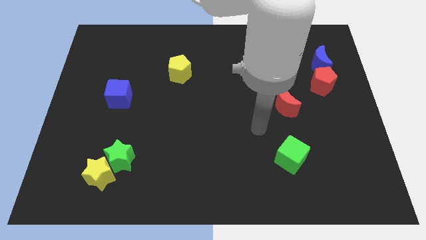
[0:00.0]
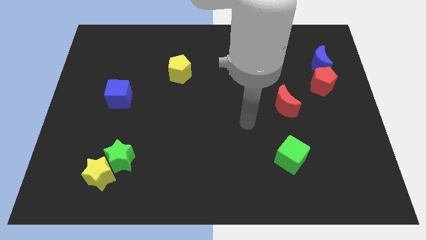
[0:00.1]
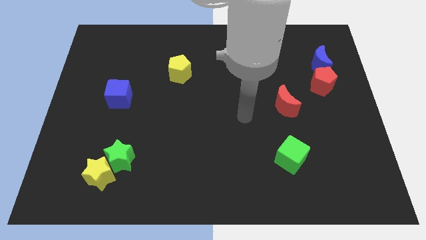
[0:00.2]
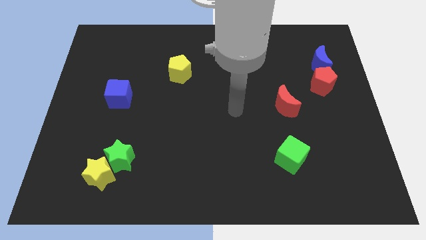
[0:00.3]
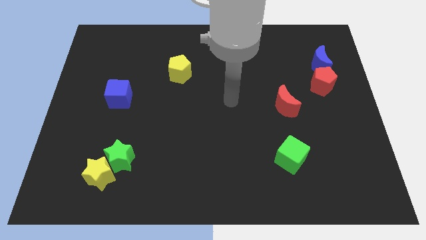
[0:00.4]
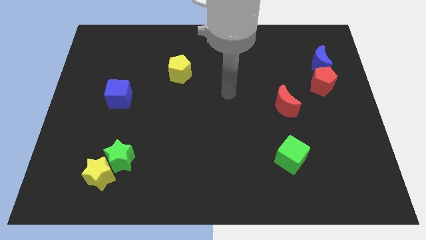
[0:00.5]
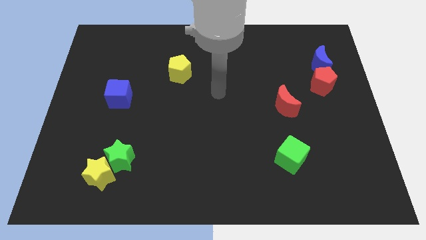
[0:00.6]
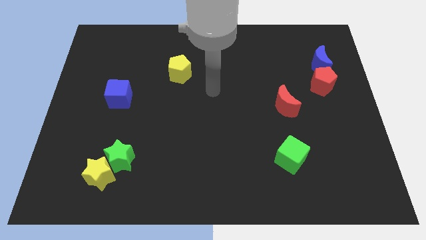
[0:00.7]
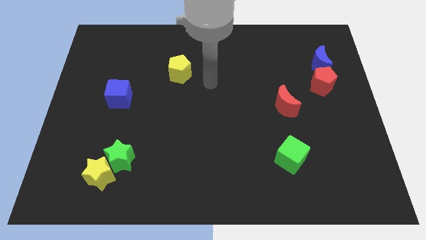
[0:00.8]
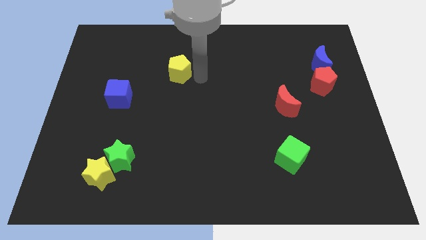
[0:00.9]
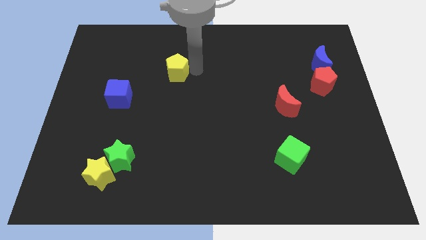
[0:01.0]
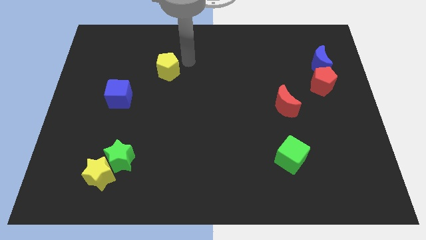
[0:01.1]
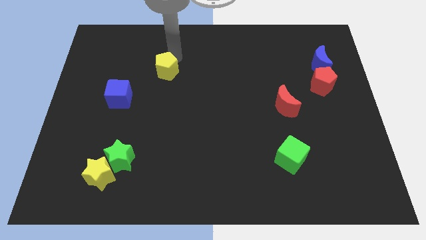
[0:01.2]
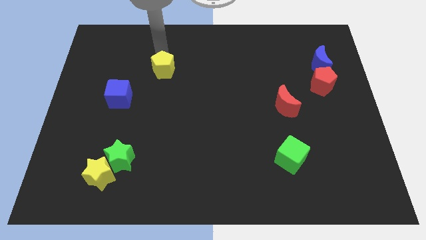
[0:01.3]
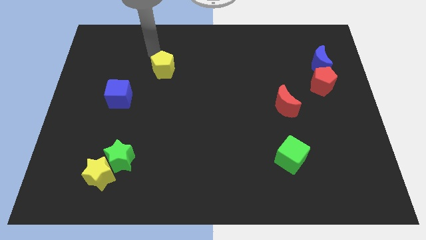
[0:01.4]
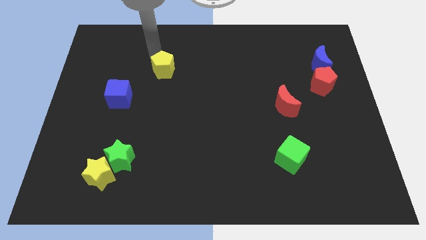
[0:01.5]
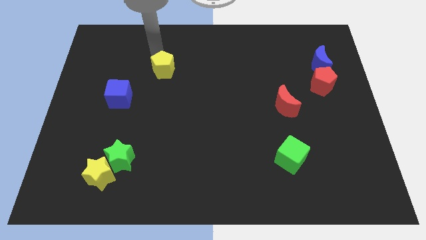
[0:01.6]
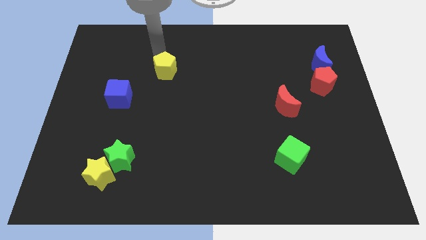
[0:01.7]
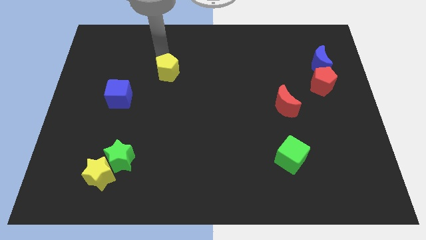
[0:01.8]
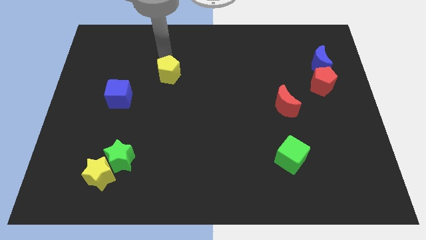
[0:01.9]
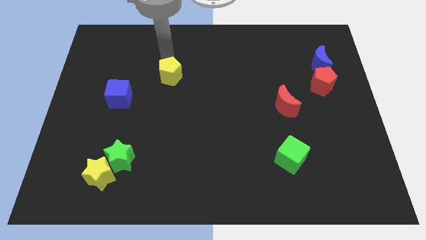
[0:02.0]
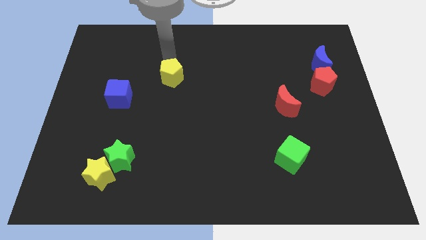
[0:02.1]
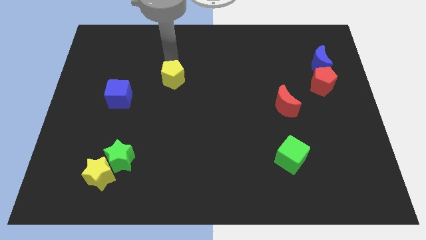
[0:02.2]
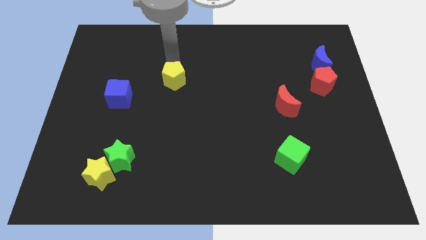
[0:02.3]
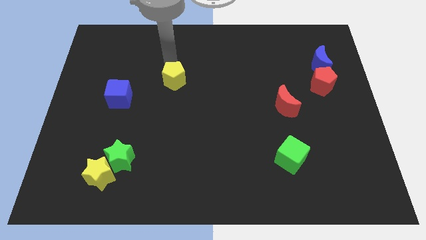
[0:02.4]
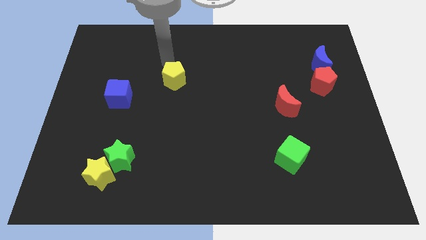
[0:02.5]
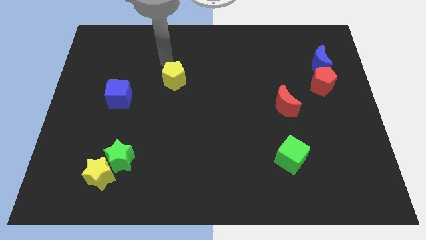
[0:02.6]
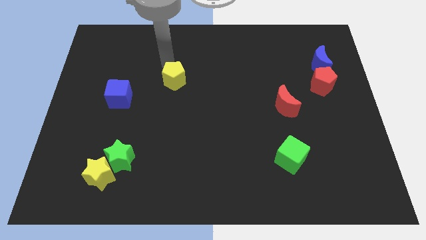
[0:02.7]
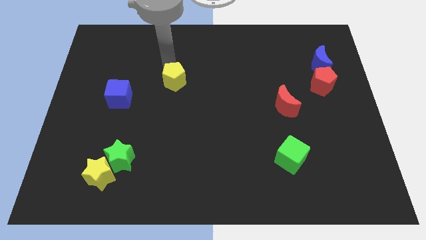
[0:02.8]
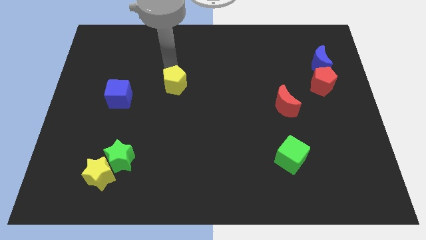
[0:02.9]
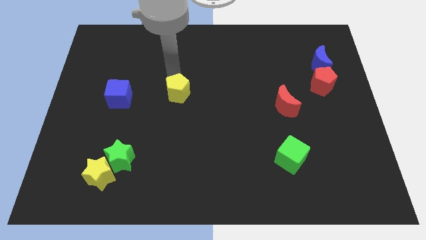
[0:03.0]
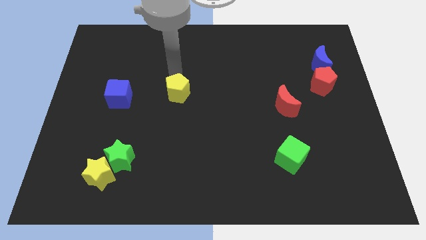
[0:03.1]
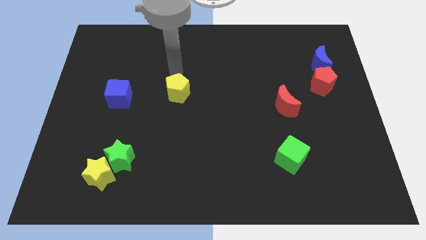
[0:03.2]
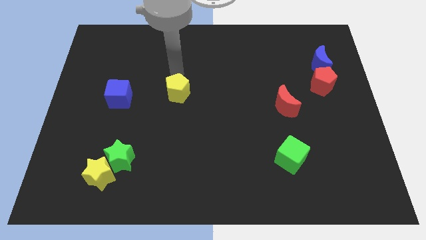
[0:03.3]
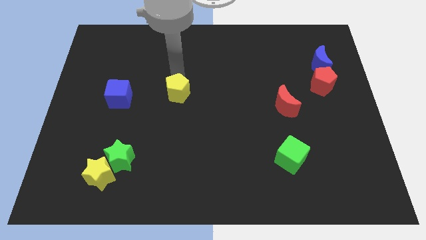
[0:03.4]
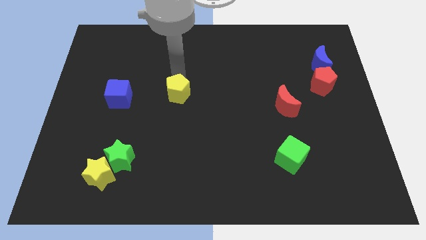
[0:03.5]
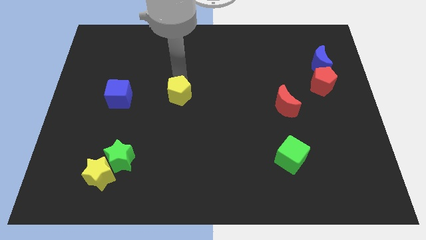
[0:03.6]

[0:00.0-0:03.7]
push the yellow pentagon downwards a little bit

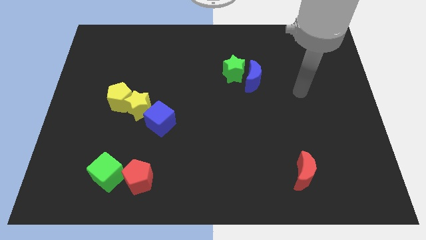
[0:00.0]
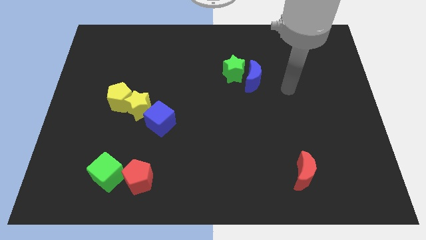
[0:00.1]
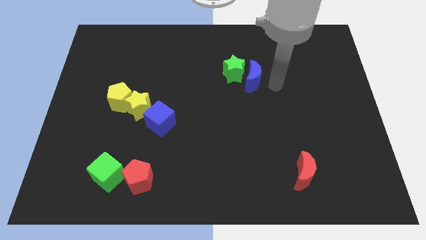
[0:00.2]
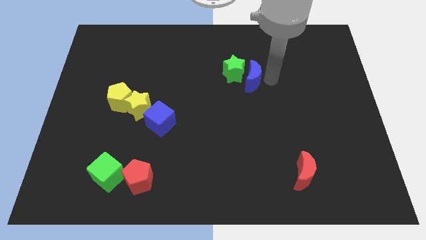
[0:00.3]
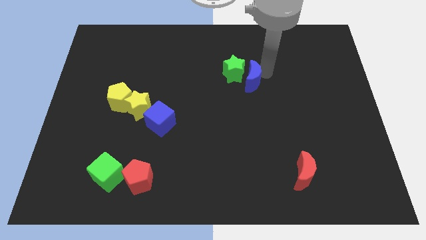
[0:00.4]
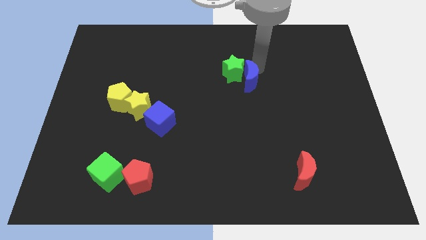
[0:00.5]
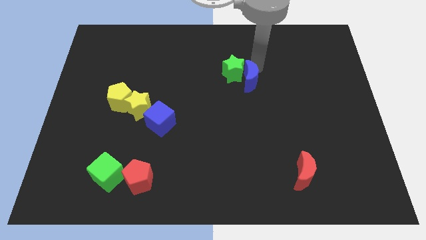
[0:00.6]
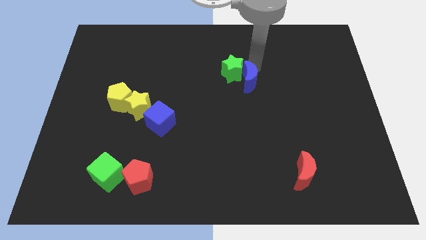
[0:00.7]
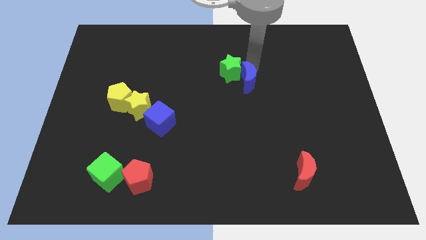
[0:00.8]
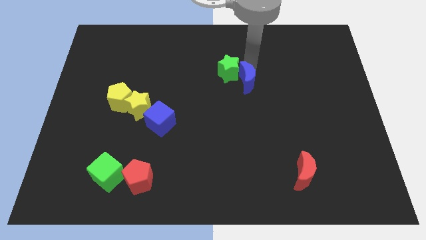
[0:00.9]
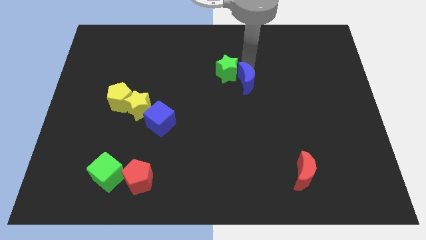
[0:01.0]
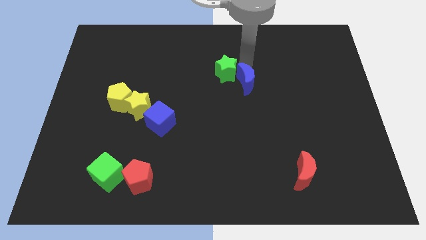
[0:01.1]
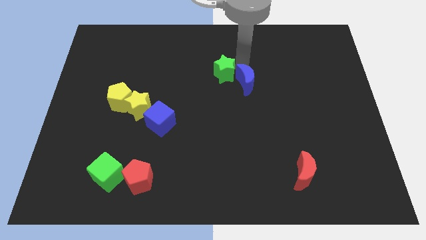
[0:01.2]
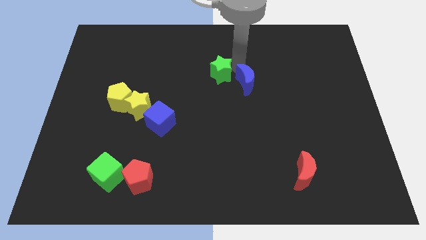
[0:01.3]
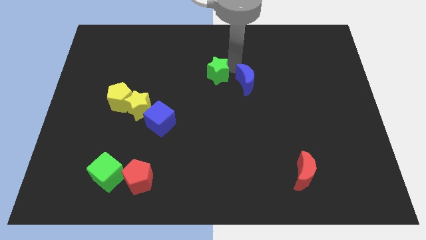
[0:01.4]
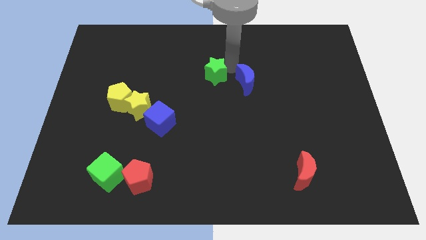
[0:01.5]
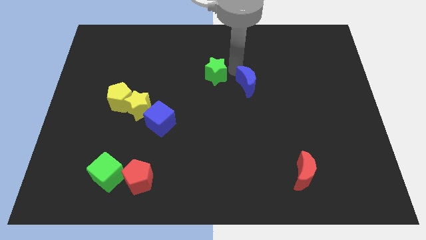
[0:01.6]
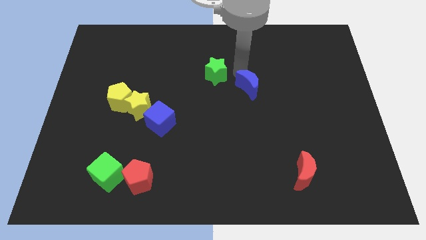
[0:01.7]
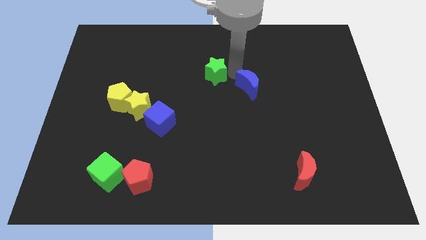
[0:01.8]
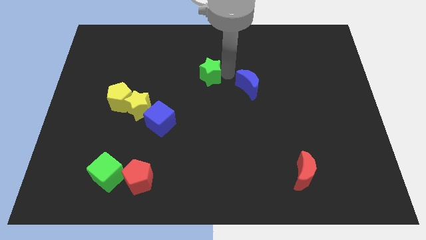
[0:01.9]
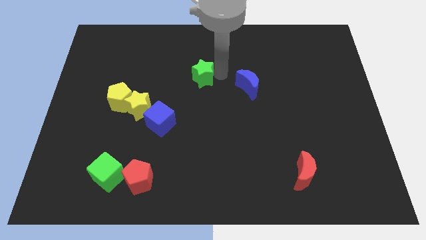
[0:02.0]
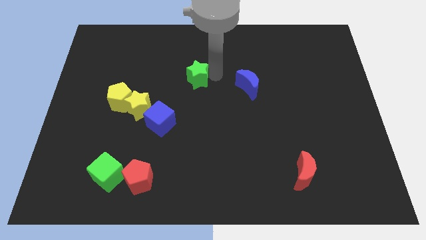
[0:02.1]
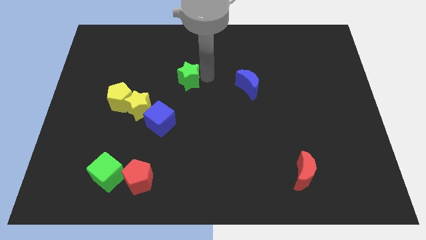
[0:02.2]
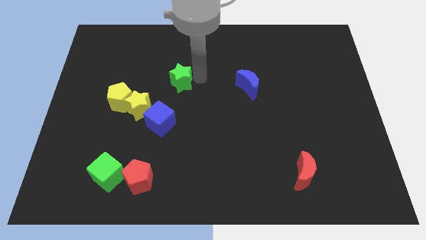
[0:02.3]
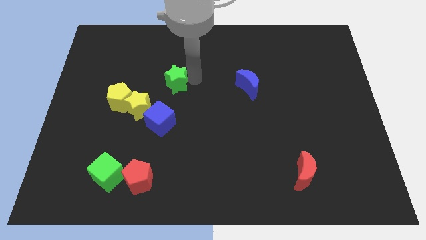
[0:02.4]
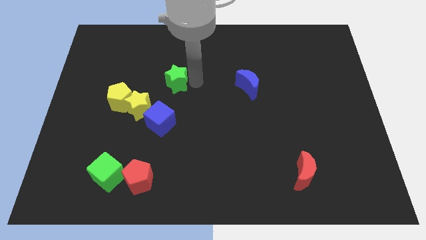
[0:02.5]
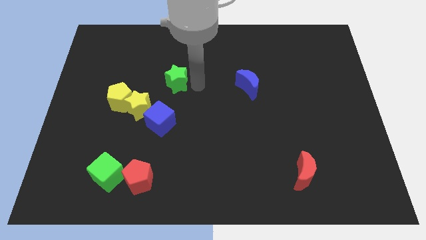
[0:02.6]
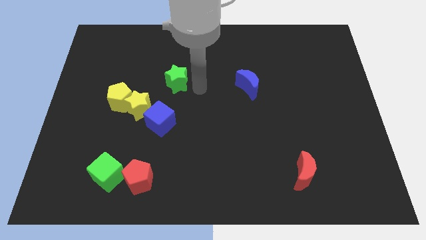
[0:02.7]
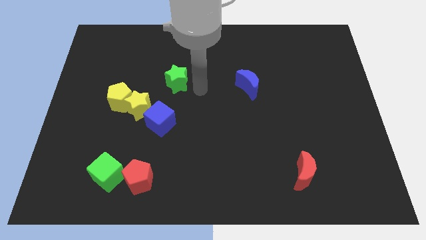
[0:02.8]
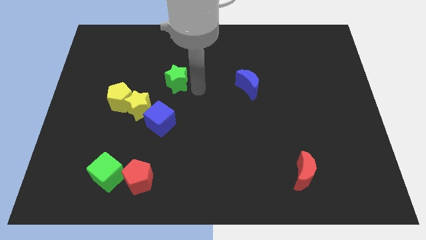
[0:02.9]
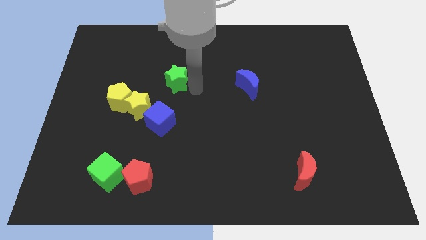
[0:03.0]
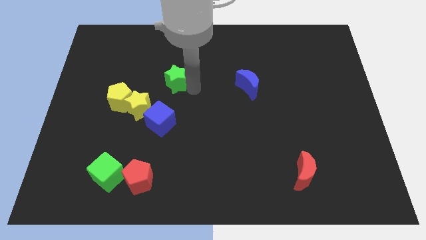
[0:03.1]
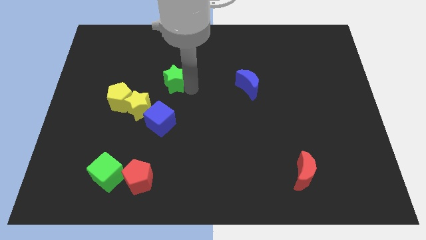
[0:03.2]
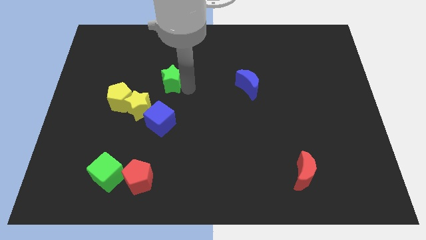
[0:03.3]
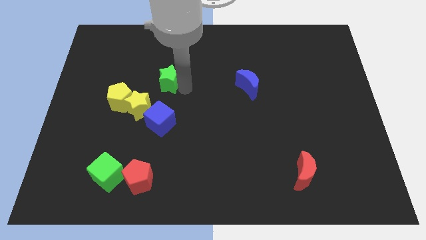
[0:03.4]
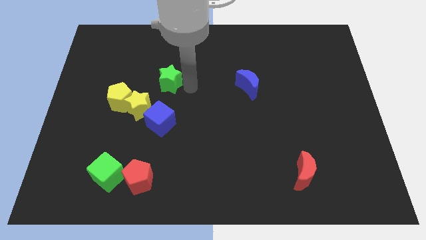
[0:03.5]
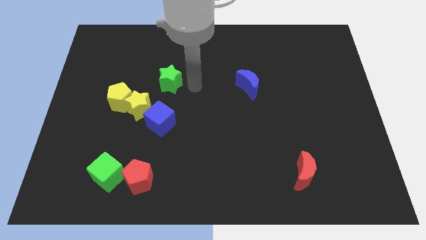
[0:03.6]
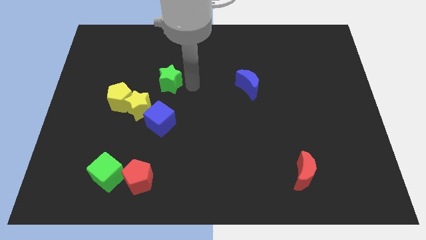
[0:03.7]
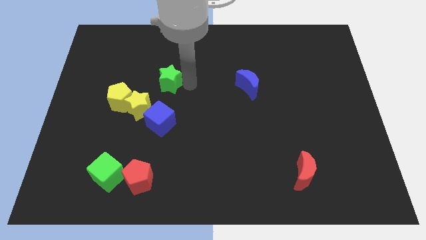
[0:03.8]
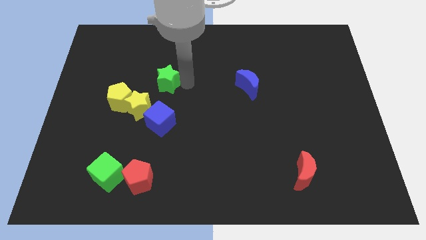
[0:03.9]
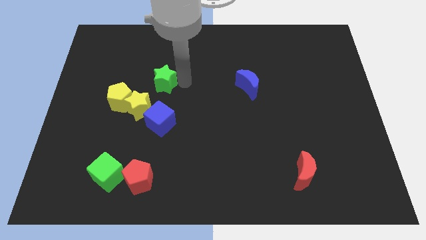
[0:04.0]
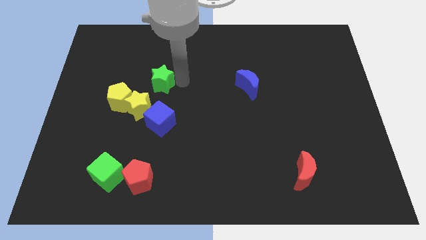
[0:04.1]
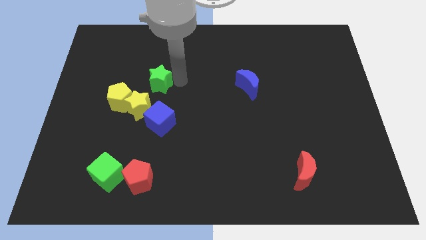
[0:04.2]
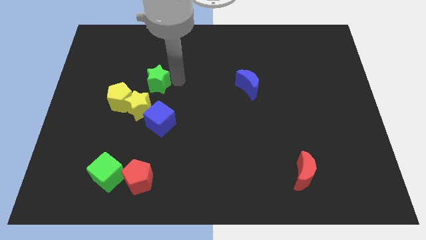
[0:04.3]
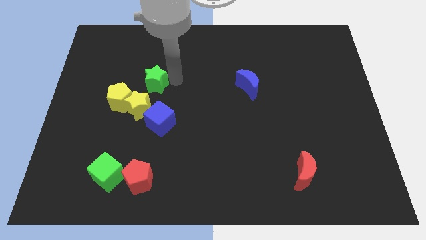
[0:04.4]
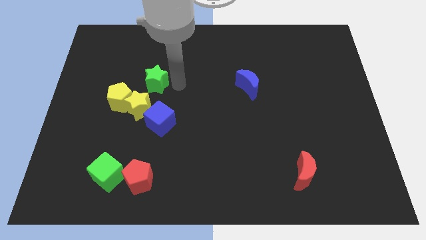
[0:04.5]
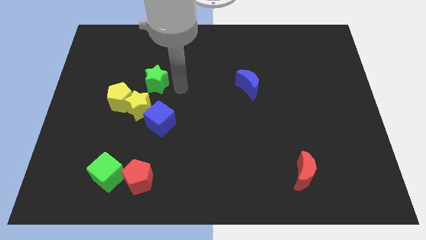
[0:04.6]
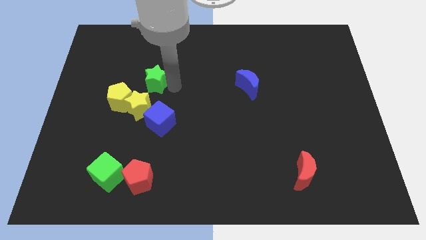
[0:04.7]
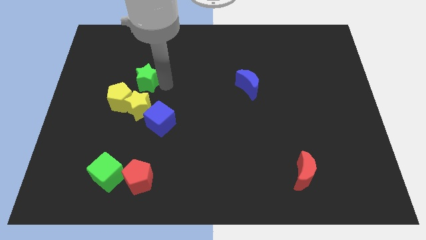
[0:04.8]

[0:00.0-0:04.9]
move the green star to the left
